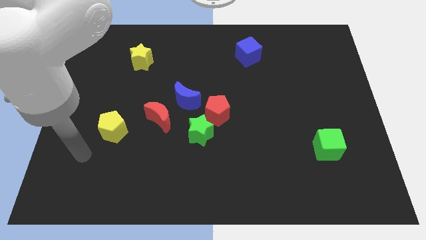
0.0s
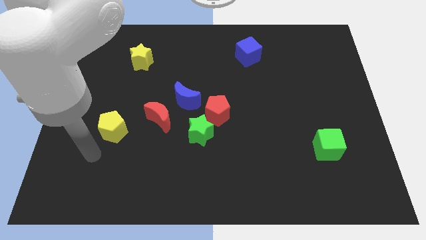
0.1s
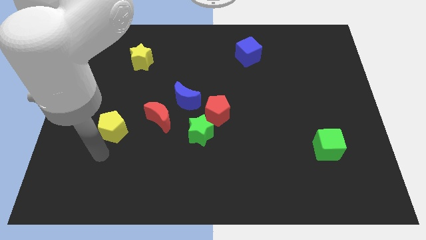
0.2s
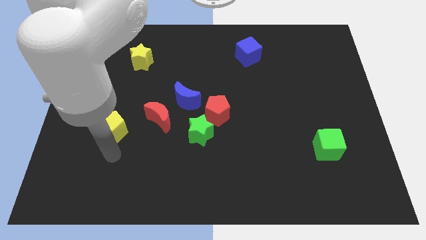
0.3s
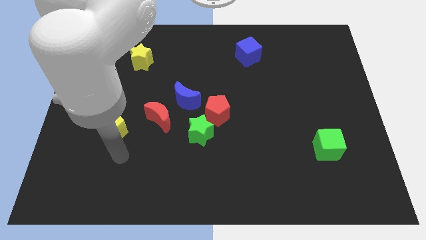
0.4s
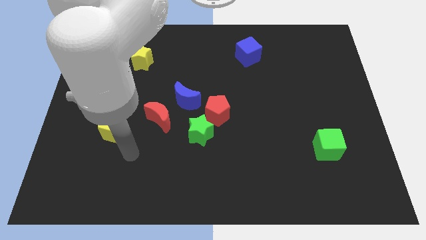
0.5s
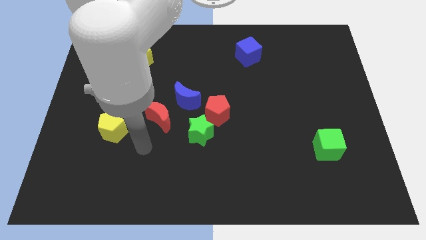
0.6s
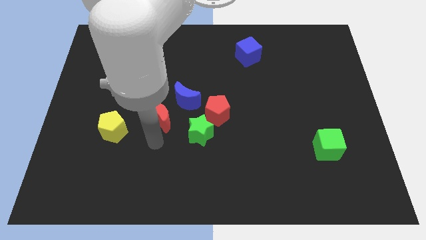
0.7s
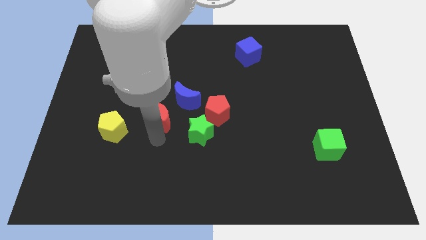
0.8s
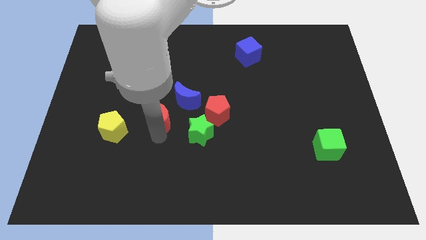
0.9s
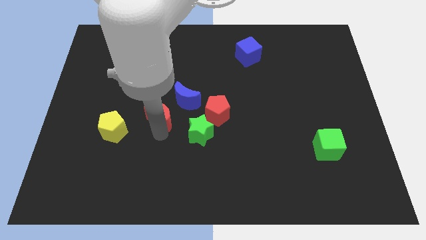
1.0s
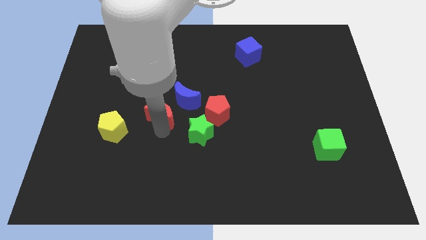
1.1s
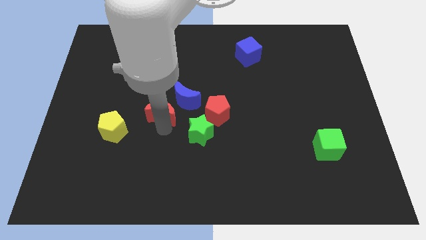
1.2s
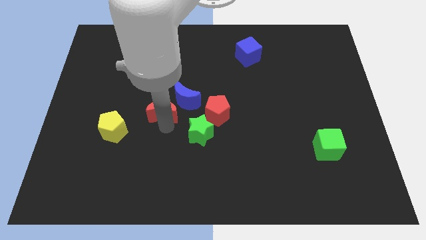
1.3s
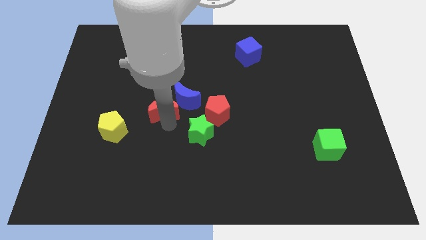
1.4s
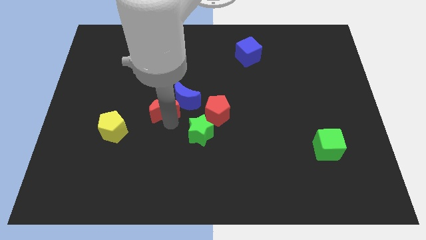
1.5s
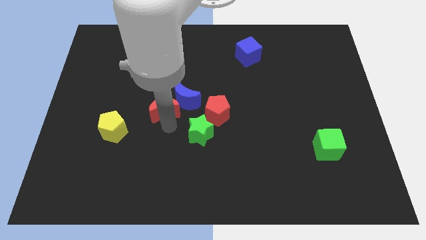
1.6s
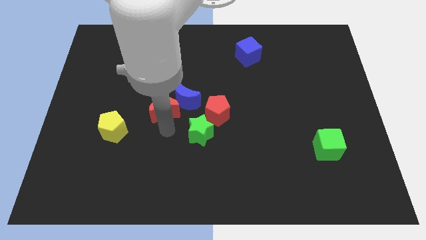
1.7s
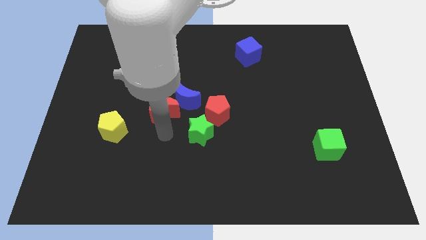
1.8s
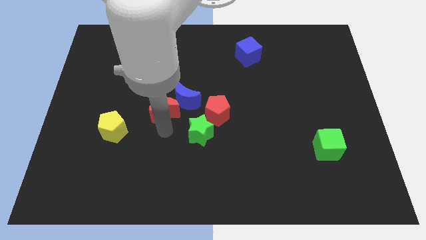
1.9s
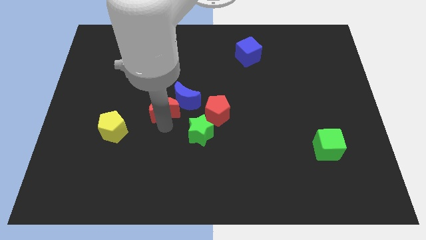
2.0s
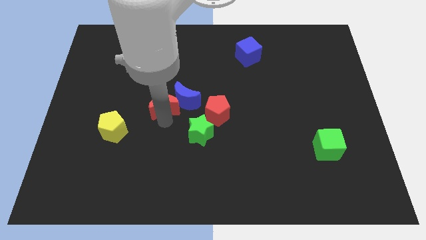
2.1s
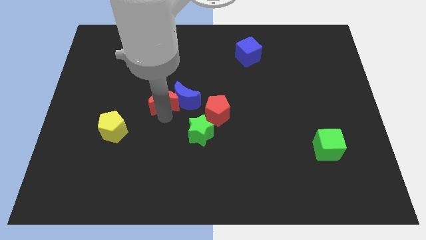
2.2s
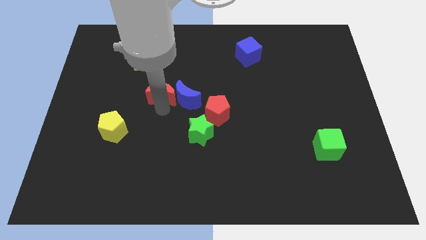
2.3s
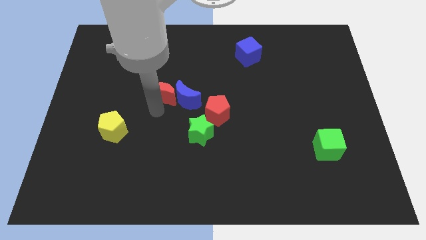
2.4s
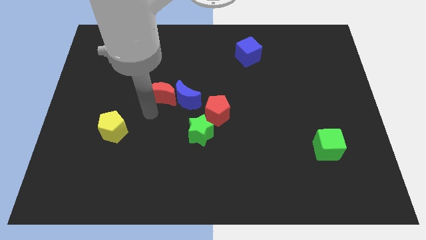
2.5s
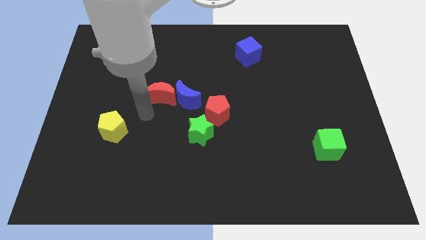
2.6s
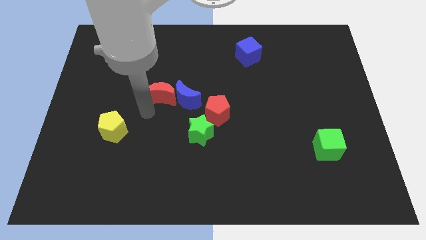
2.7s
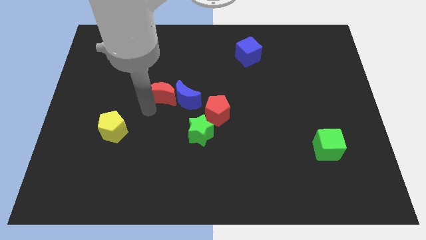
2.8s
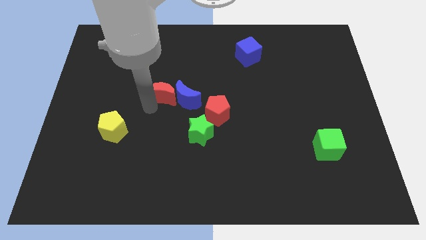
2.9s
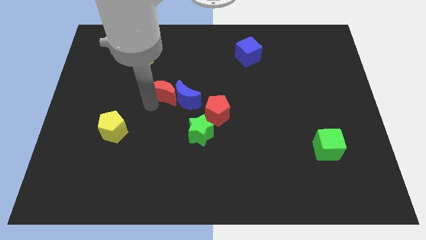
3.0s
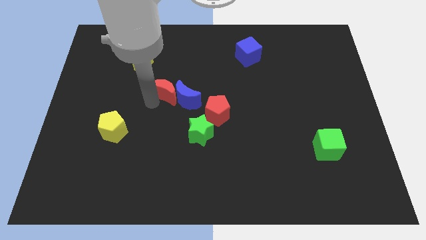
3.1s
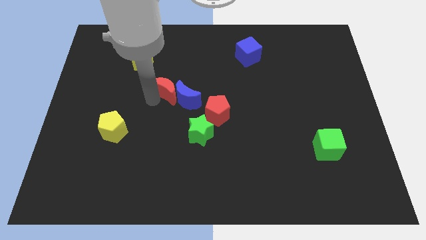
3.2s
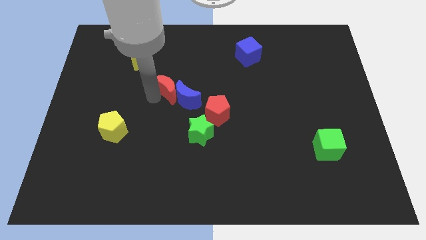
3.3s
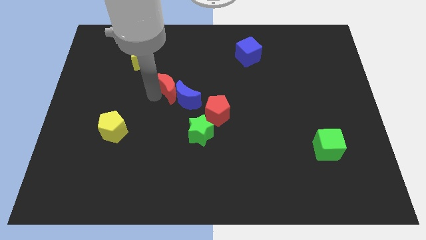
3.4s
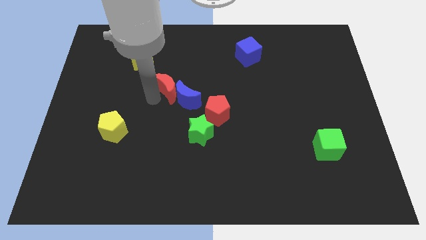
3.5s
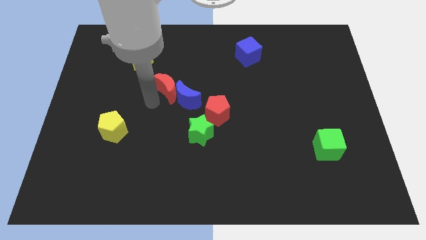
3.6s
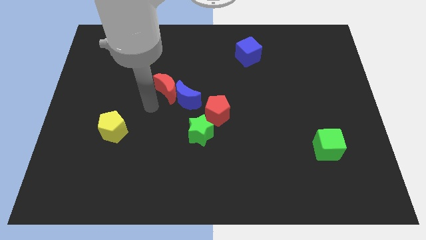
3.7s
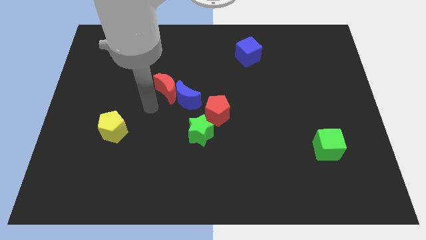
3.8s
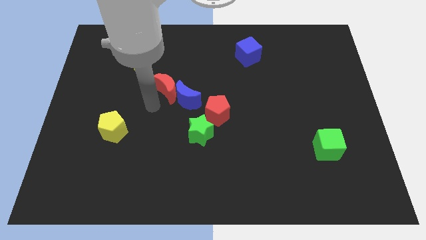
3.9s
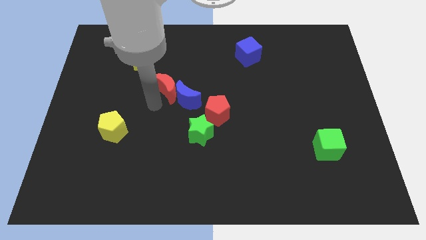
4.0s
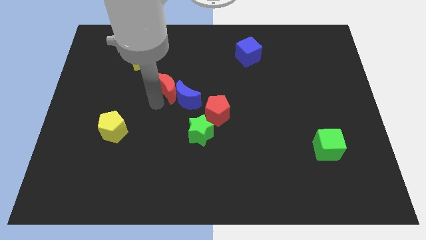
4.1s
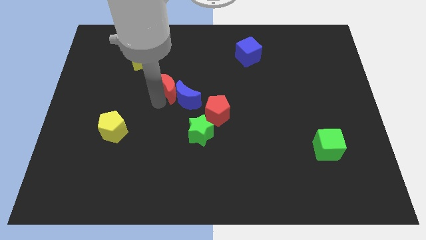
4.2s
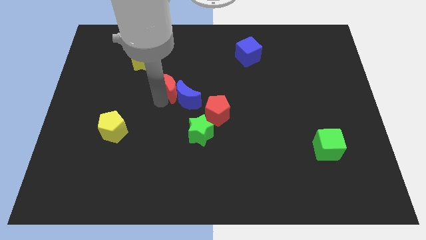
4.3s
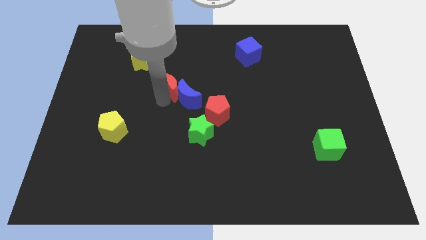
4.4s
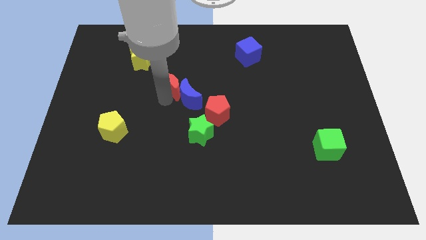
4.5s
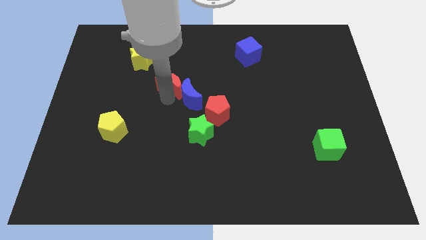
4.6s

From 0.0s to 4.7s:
push the red moon a bit up and right

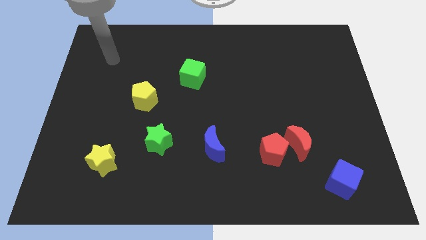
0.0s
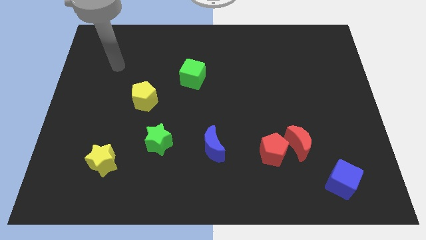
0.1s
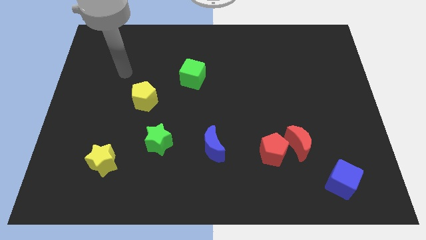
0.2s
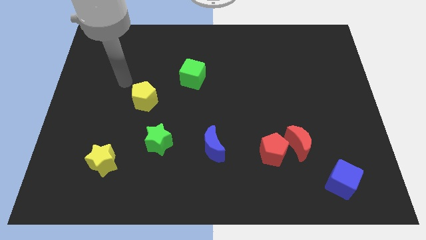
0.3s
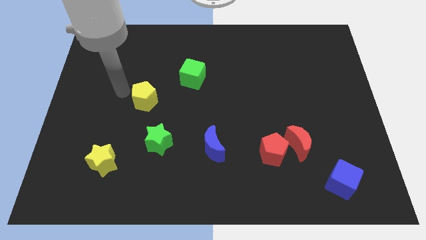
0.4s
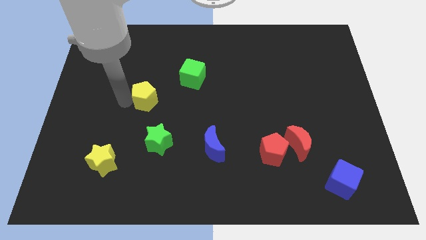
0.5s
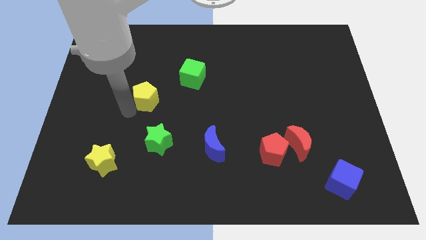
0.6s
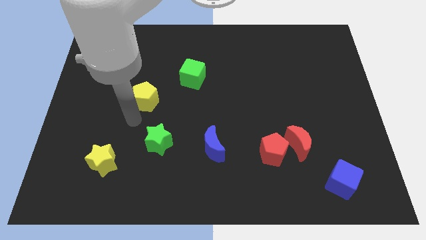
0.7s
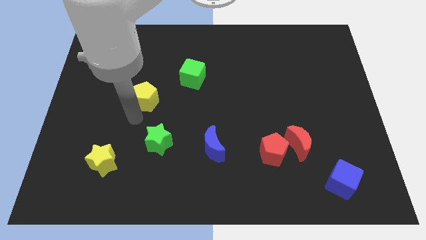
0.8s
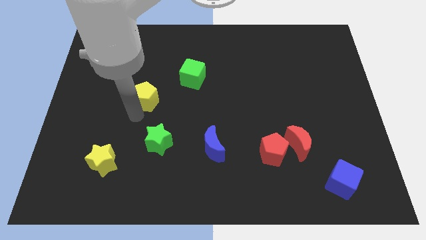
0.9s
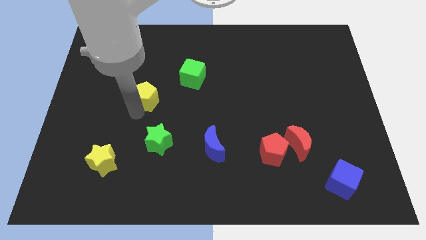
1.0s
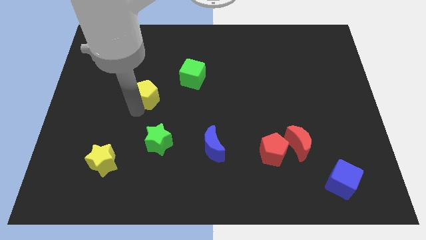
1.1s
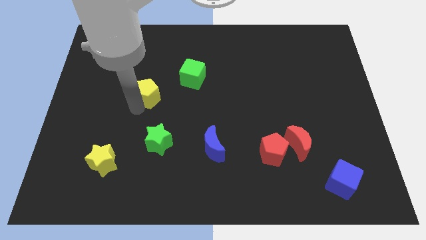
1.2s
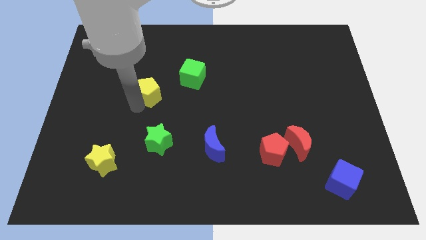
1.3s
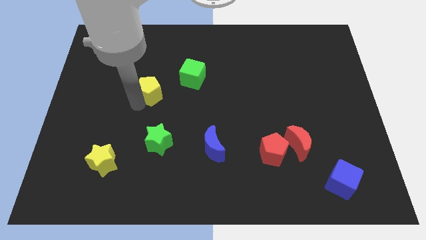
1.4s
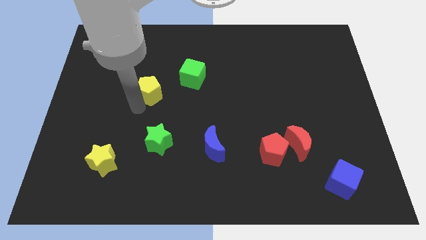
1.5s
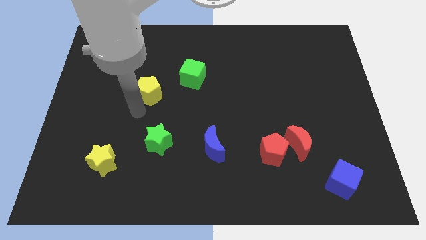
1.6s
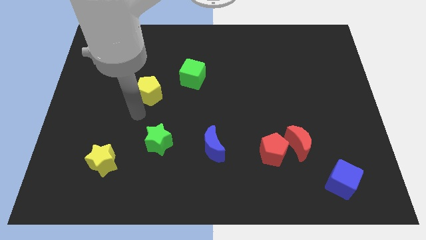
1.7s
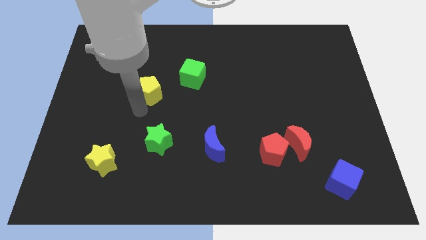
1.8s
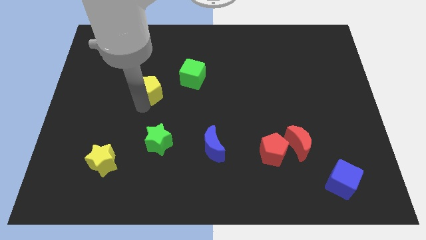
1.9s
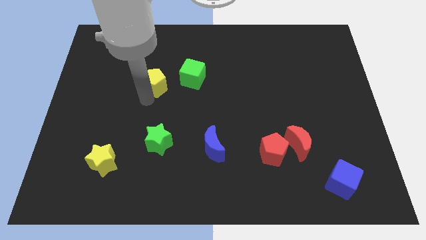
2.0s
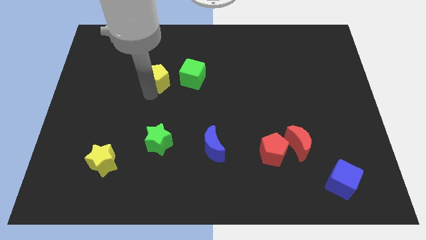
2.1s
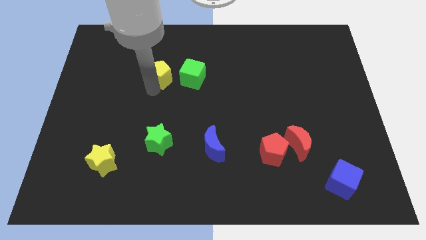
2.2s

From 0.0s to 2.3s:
move the yellow pentagon up and to the right slightly

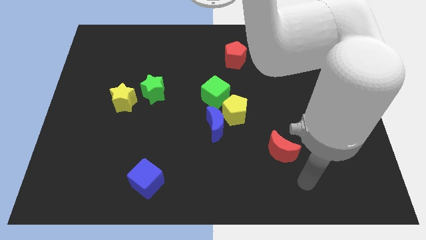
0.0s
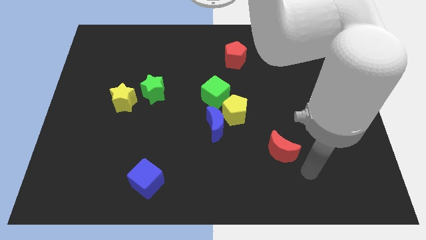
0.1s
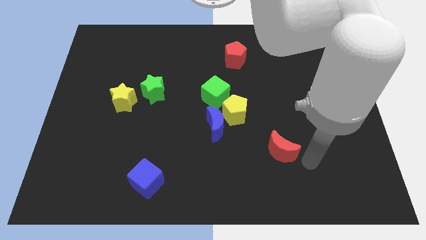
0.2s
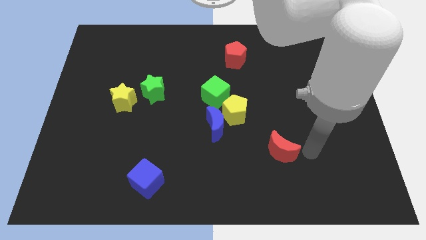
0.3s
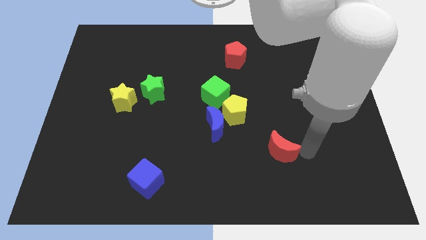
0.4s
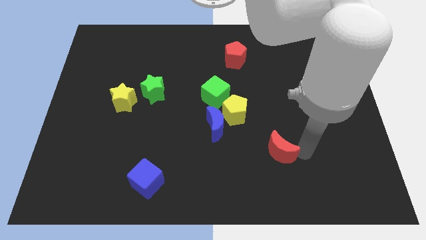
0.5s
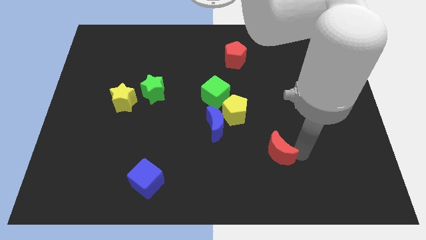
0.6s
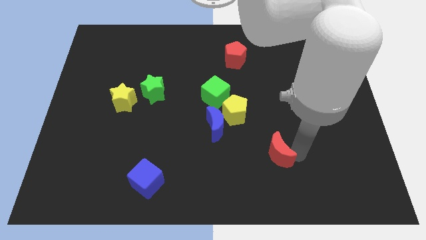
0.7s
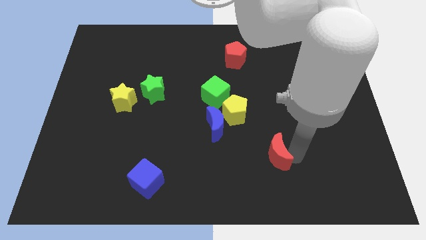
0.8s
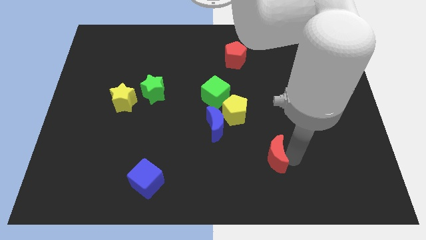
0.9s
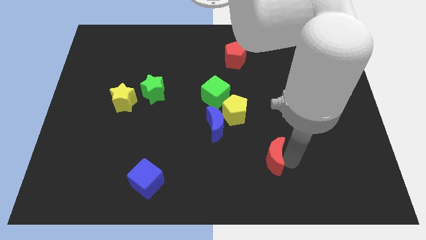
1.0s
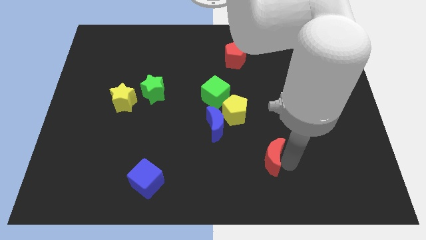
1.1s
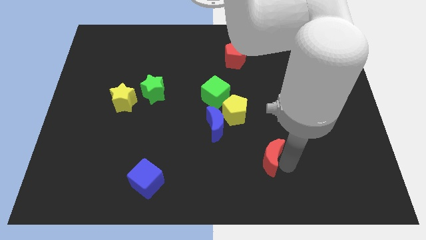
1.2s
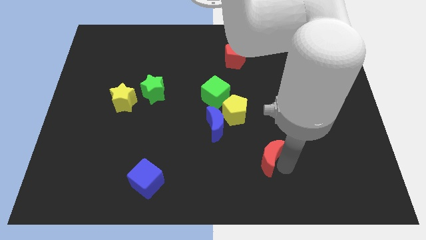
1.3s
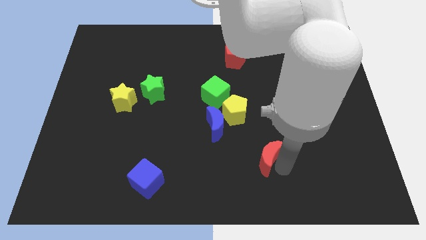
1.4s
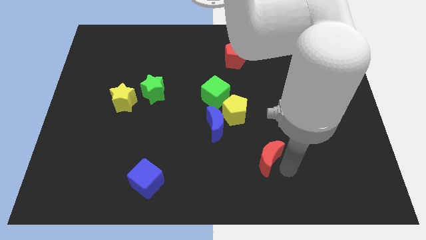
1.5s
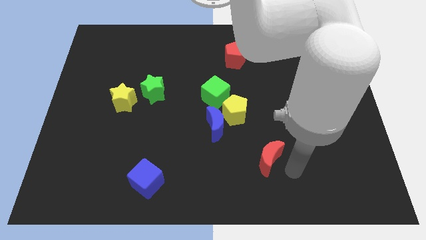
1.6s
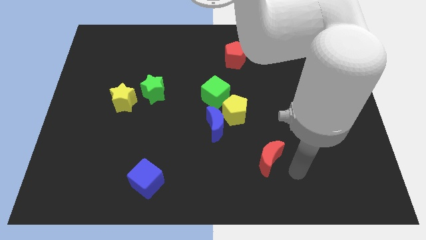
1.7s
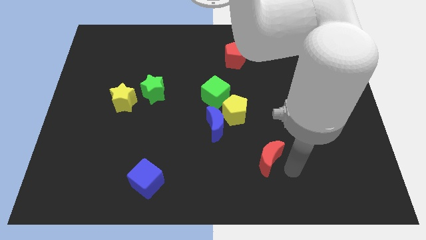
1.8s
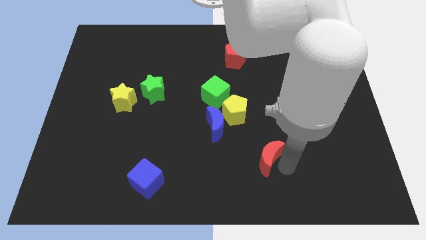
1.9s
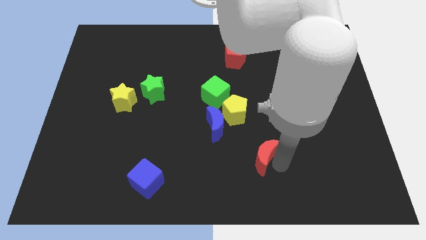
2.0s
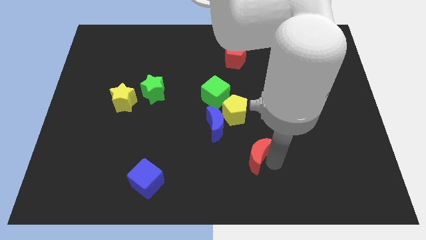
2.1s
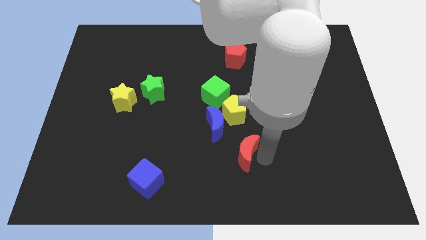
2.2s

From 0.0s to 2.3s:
push the red moon left a bit
